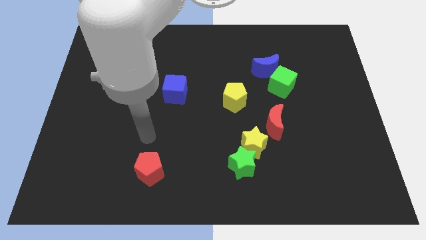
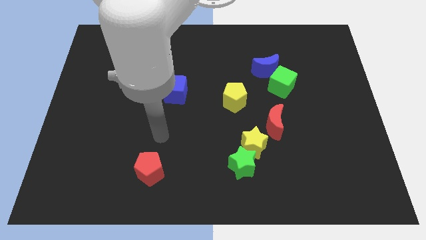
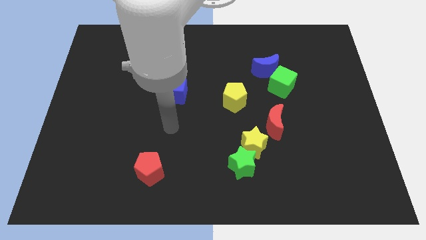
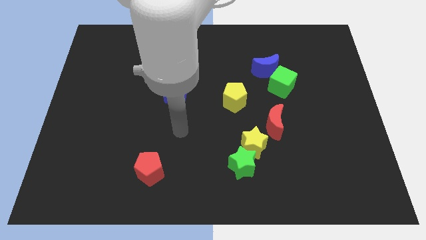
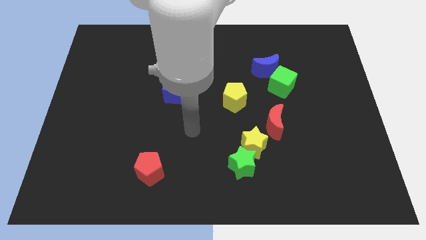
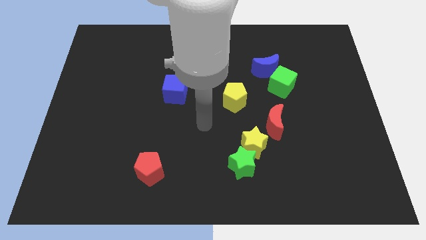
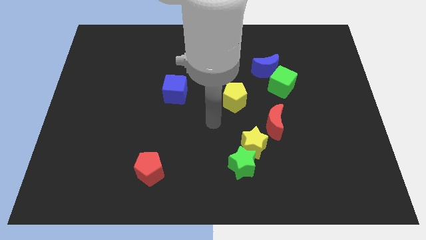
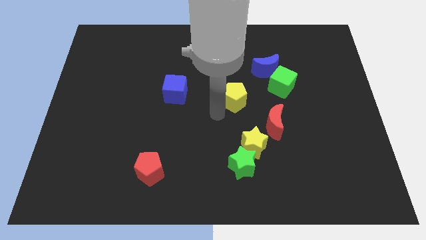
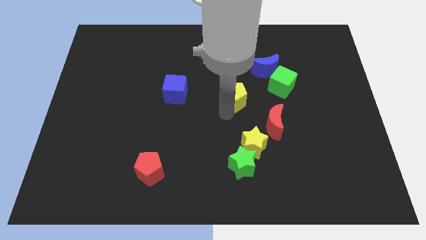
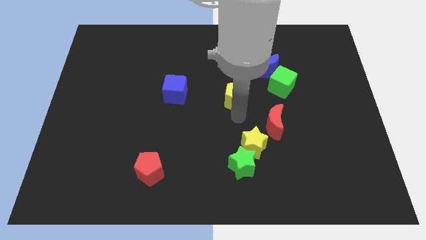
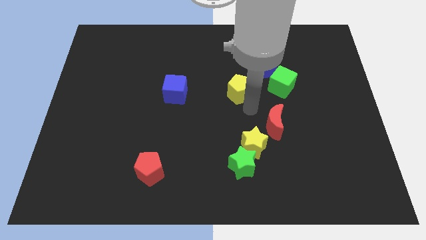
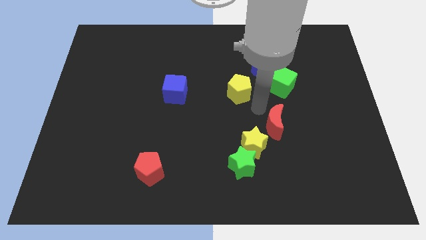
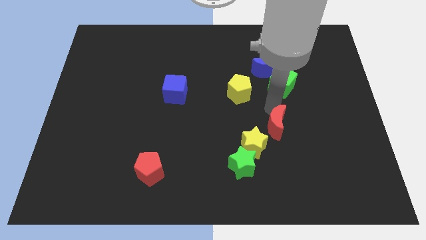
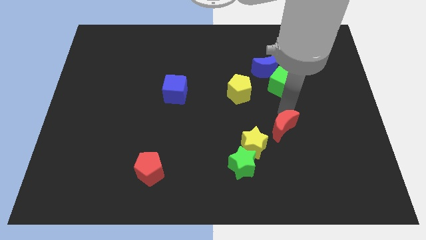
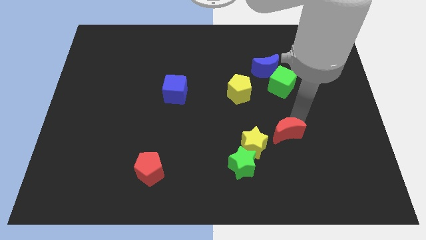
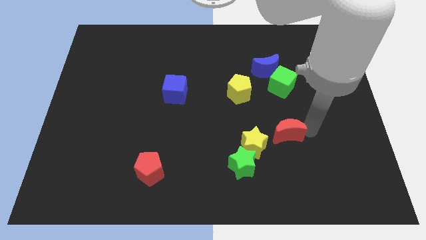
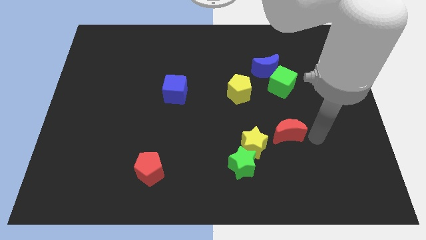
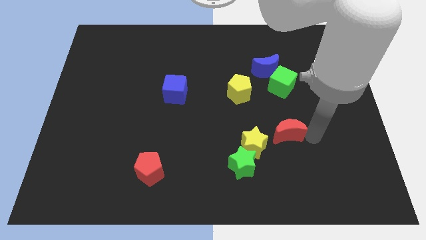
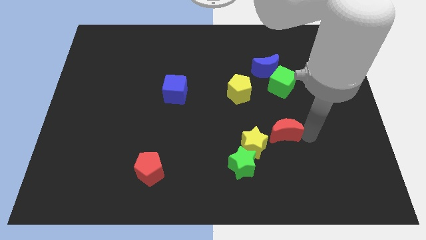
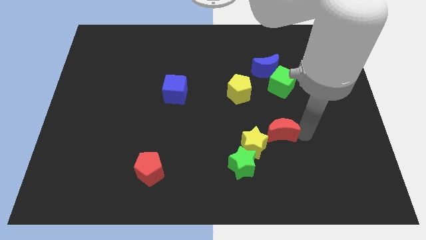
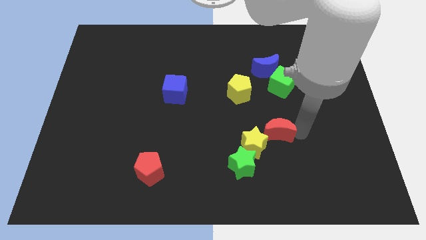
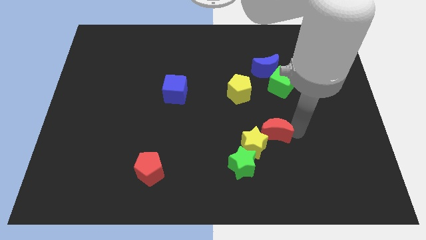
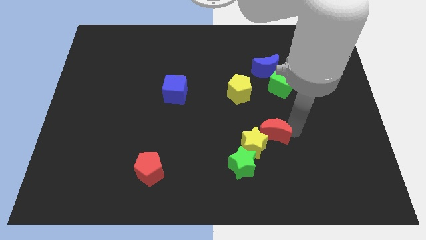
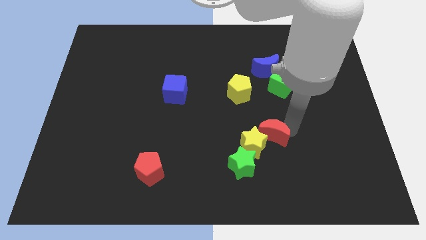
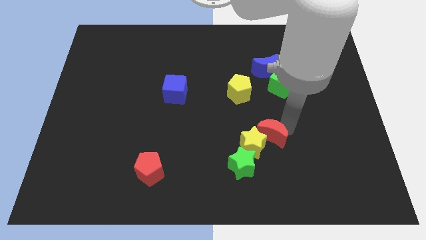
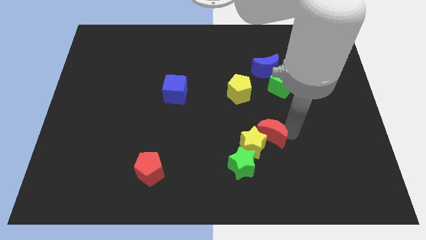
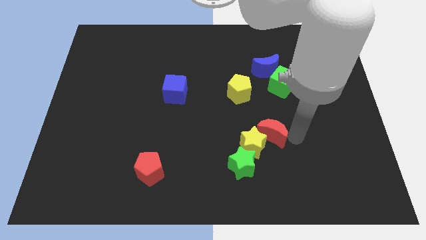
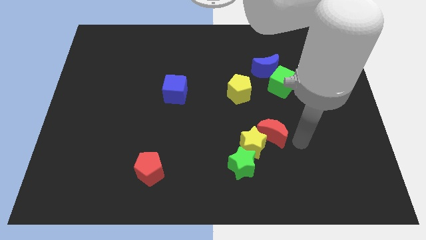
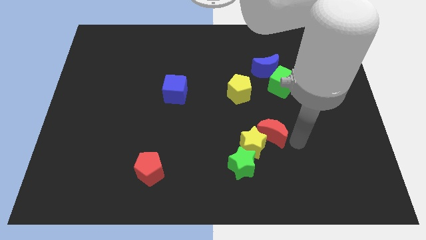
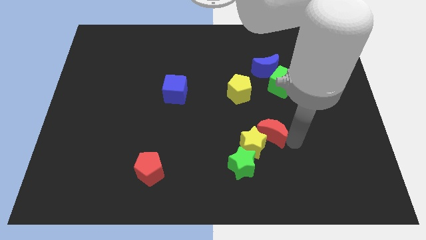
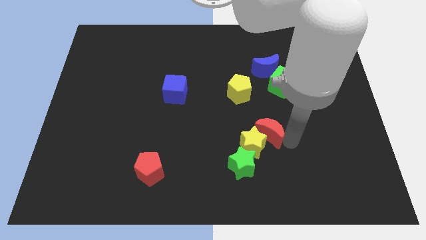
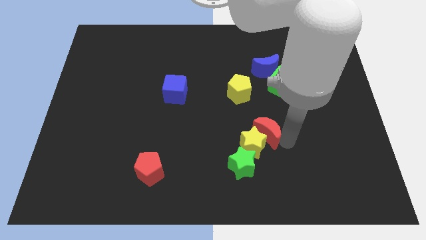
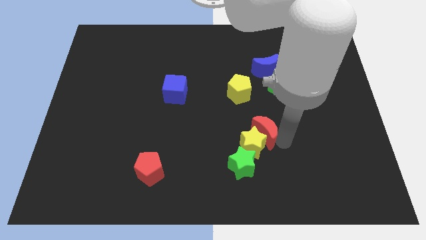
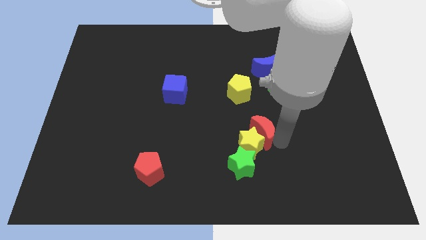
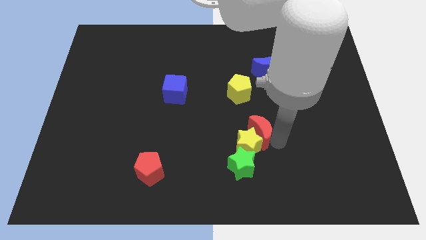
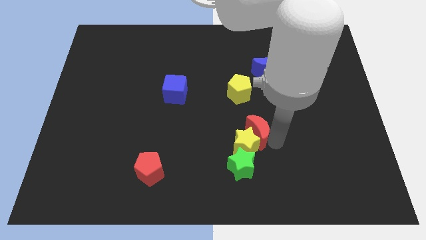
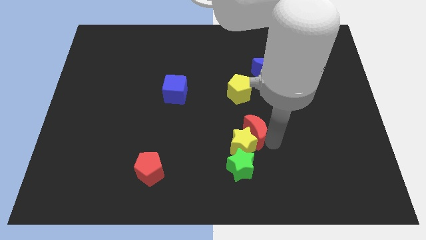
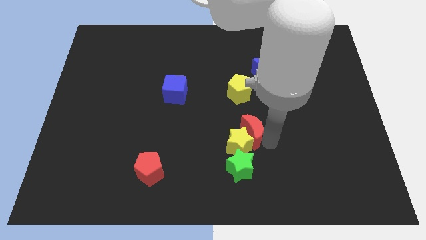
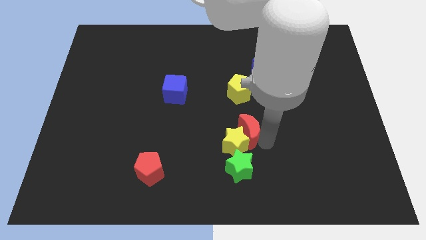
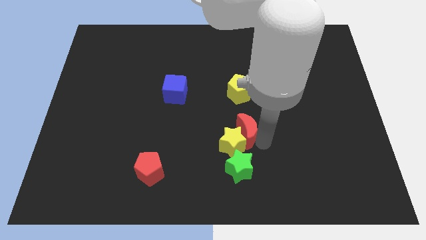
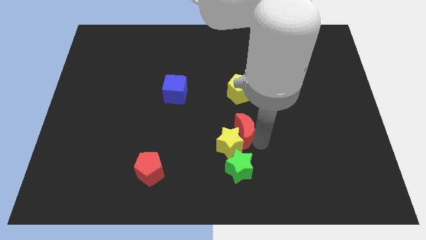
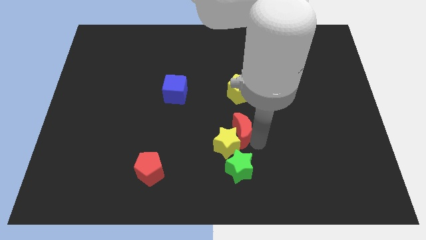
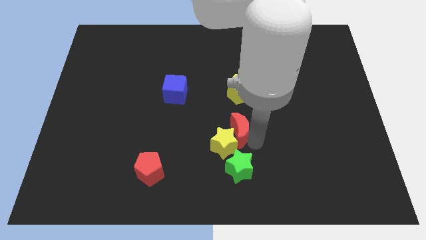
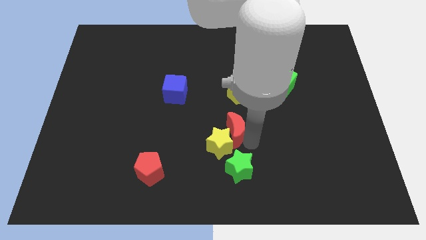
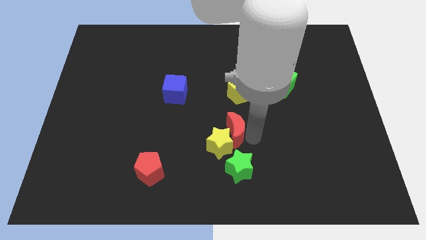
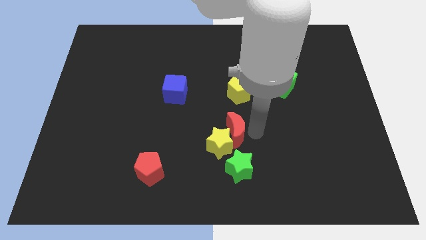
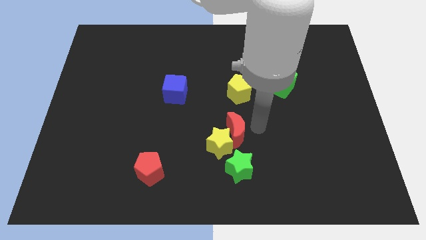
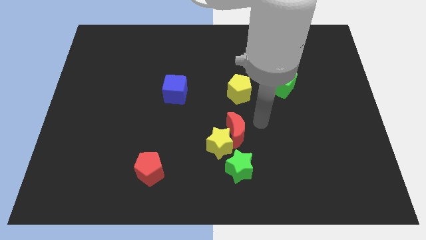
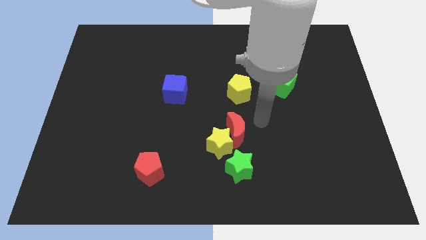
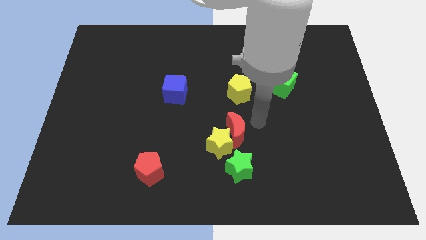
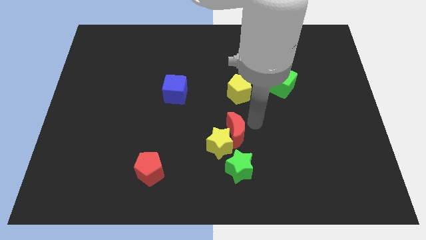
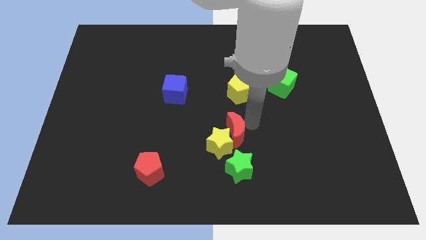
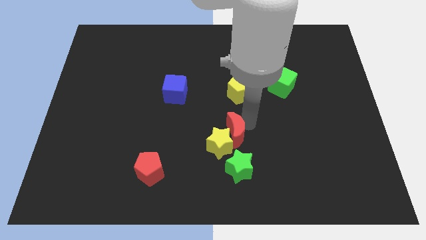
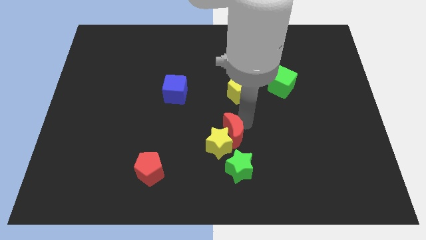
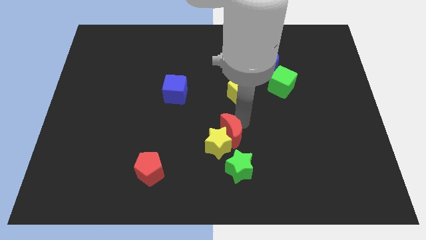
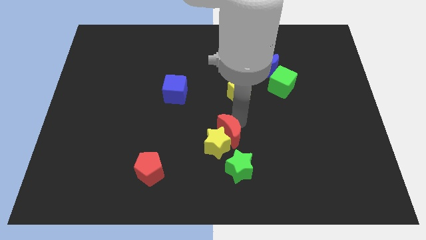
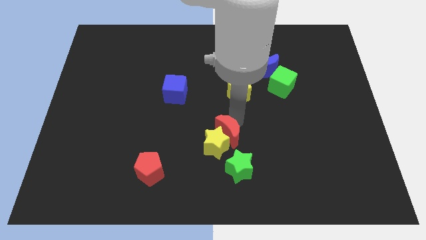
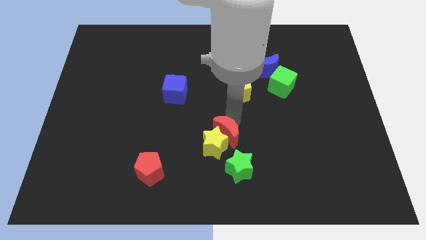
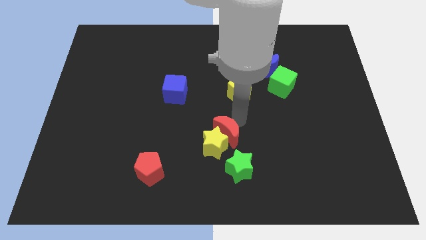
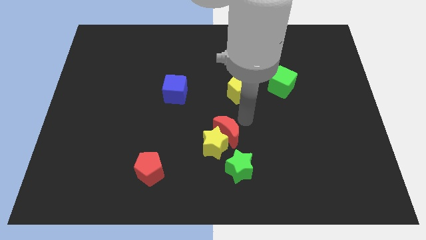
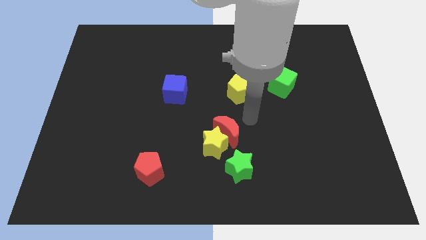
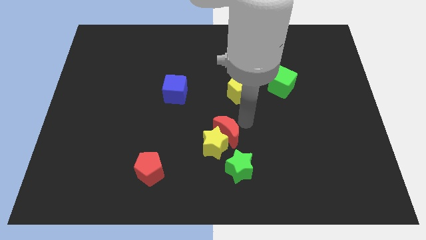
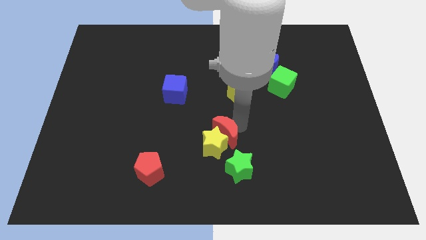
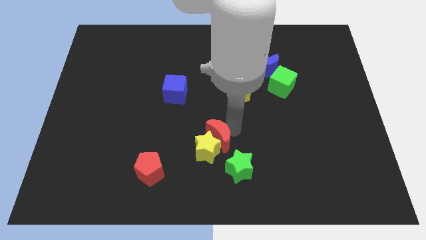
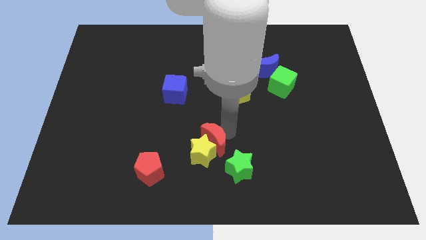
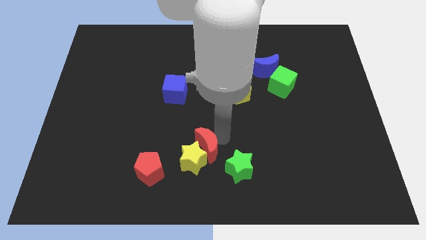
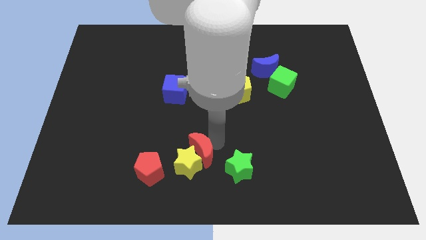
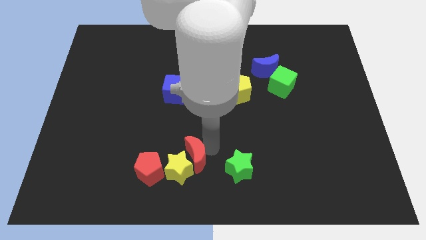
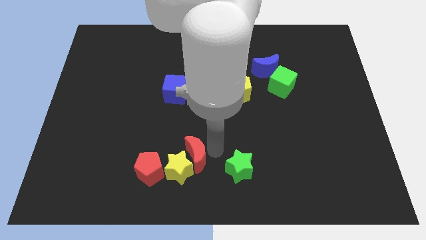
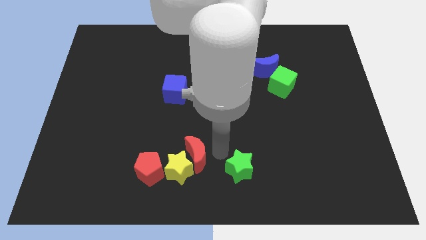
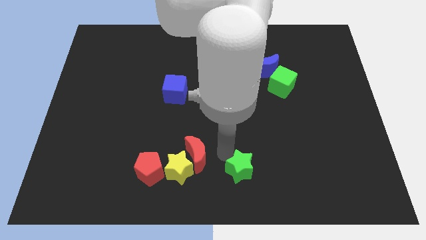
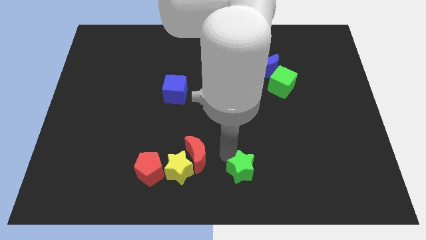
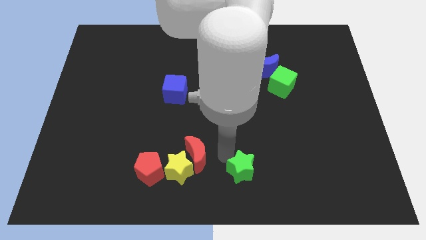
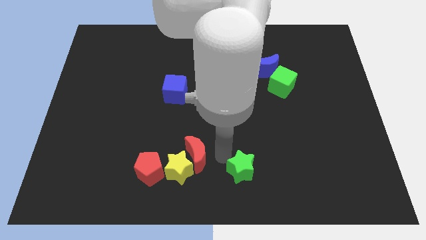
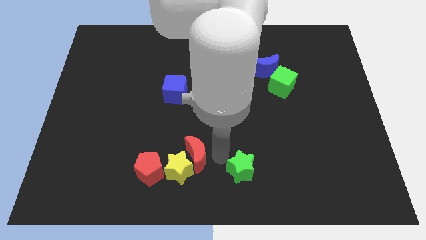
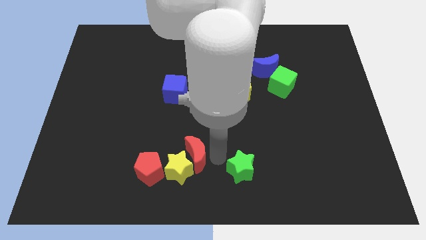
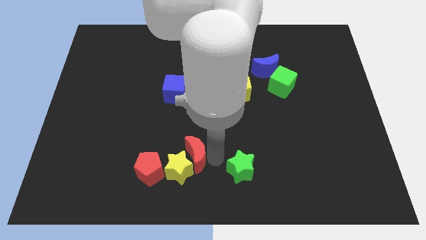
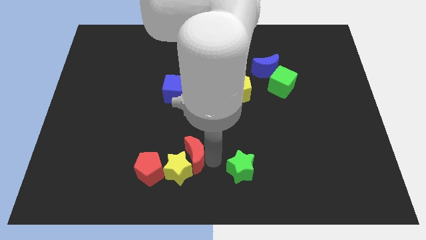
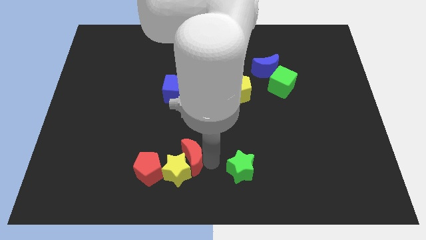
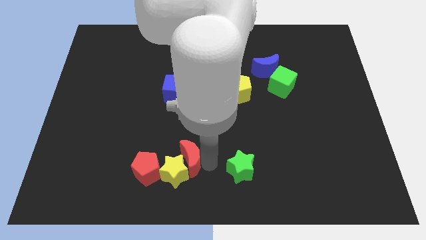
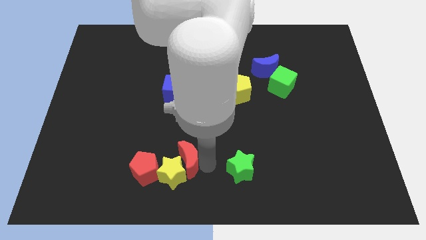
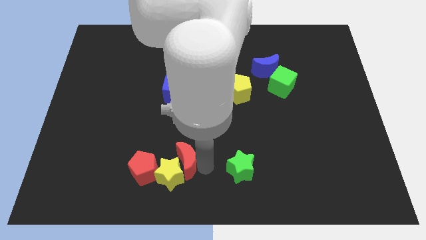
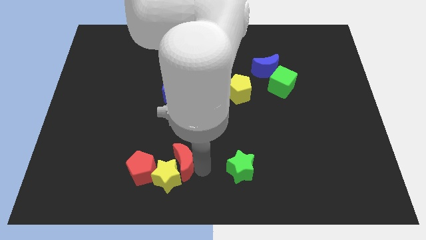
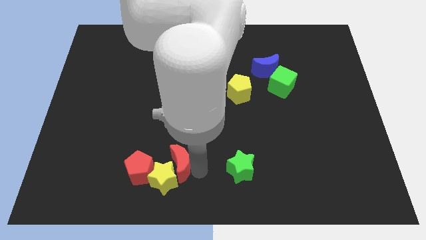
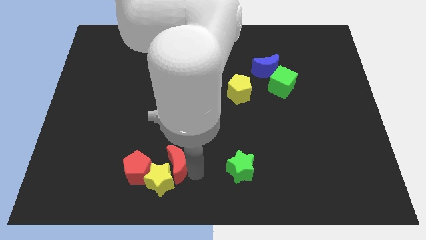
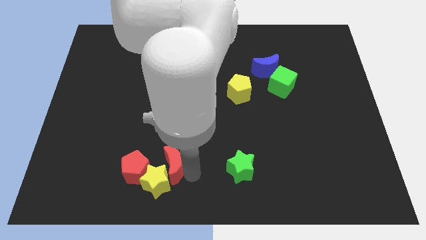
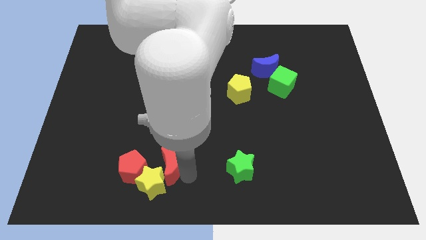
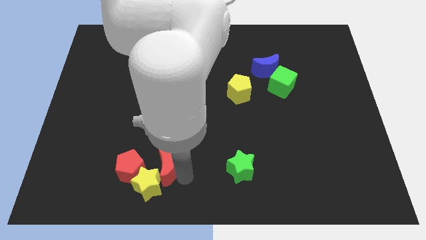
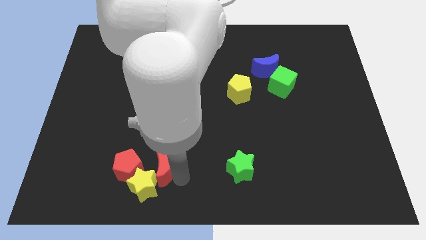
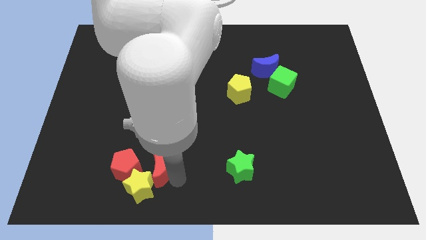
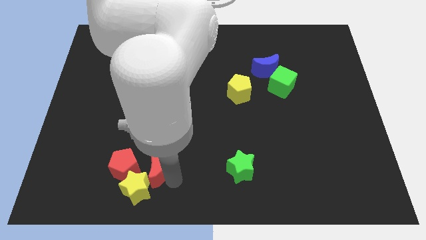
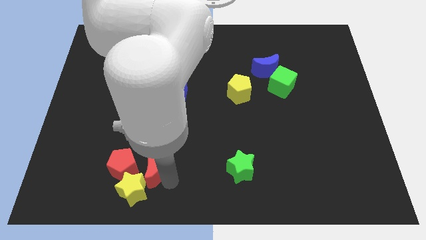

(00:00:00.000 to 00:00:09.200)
move the red moon towards the red pentagon
